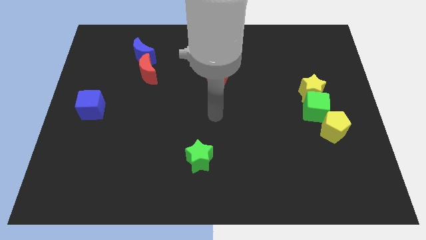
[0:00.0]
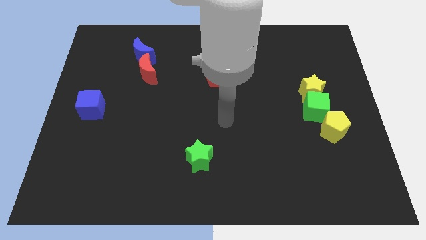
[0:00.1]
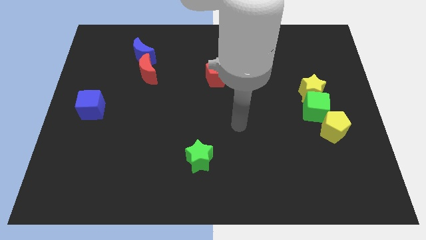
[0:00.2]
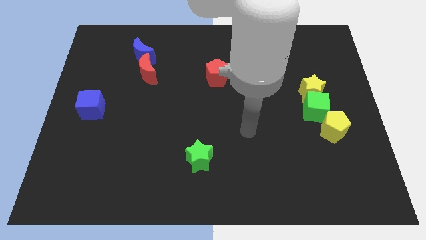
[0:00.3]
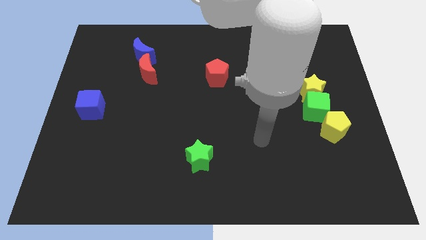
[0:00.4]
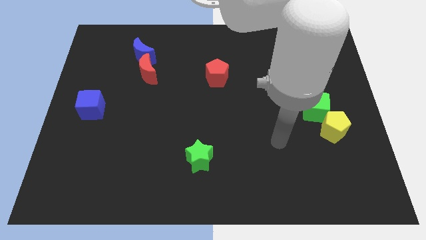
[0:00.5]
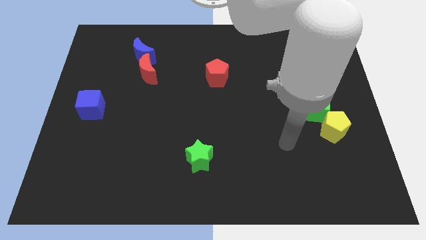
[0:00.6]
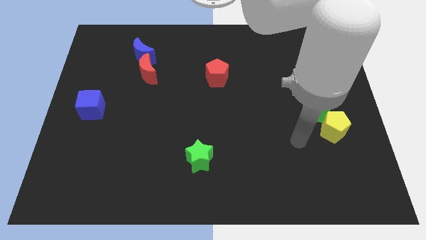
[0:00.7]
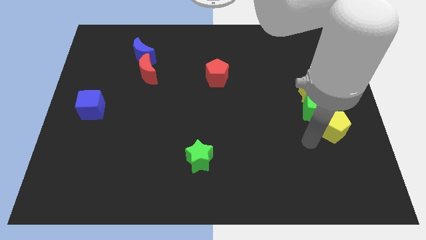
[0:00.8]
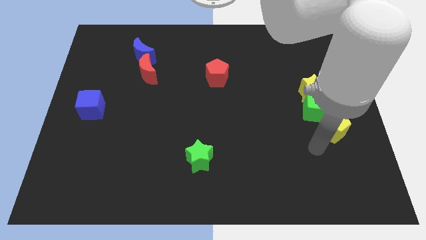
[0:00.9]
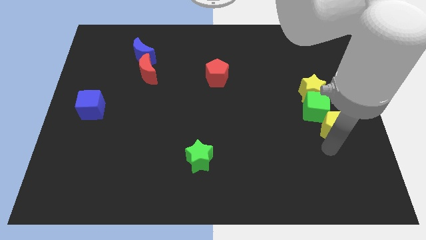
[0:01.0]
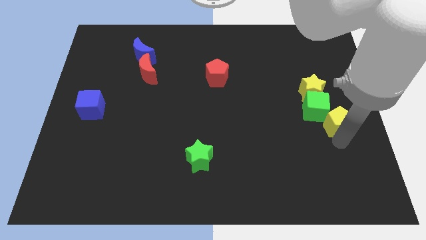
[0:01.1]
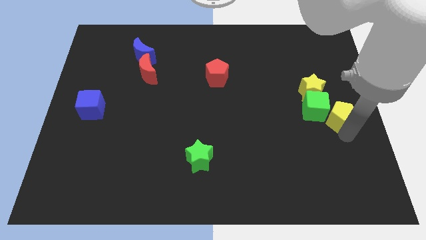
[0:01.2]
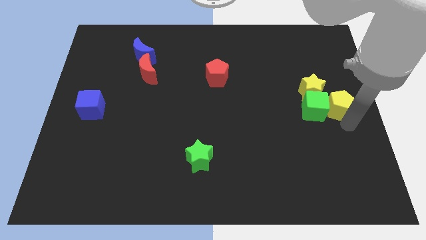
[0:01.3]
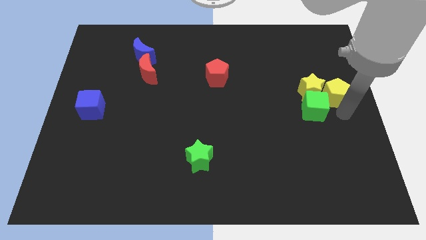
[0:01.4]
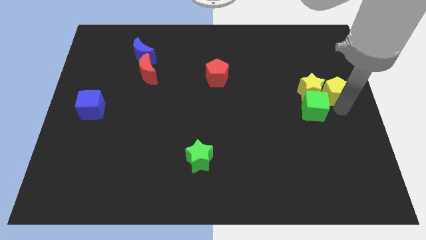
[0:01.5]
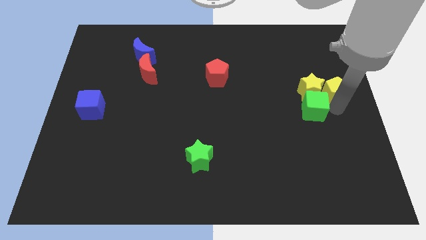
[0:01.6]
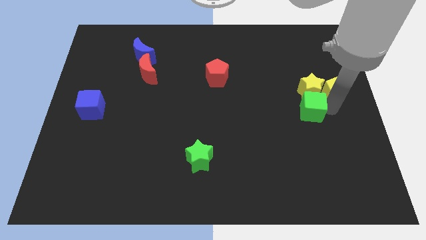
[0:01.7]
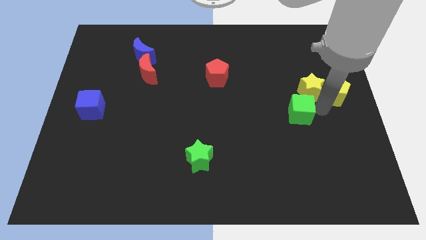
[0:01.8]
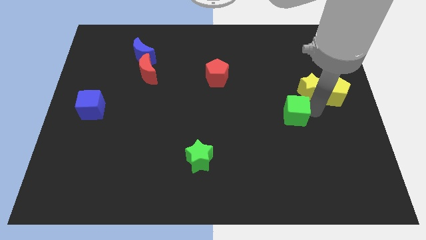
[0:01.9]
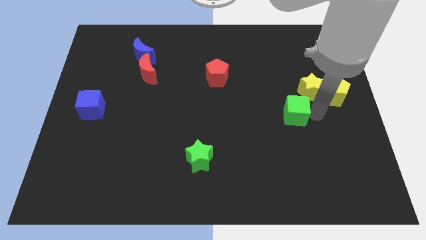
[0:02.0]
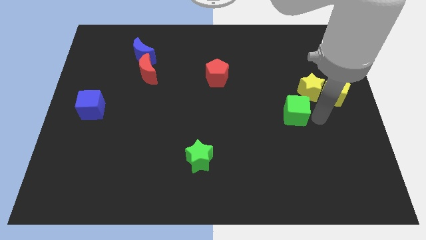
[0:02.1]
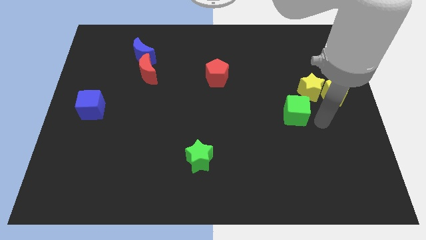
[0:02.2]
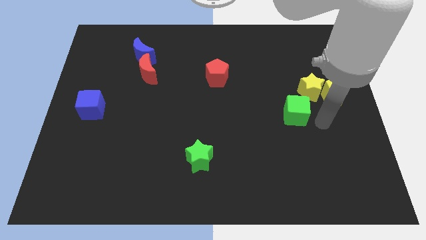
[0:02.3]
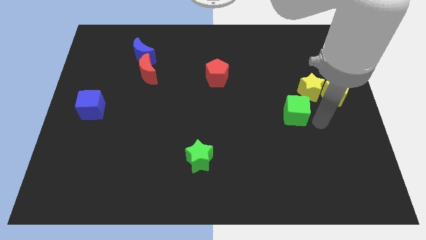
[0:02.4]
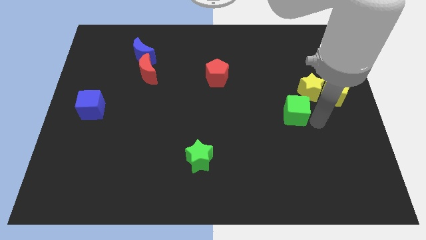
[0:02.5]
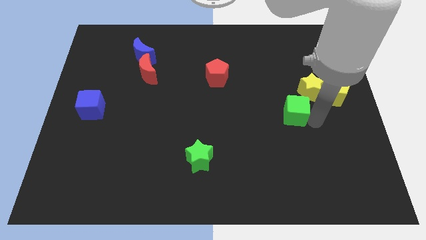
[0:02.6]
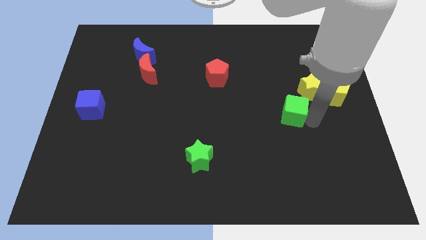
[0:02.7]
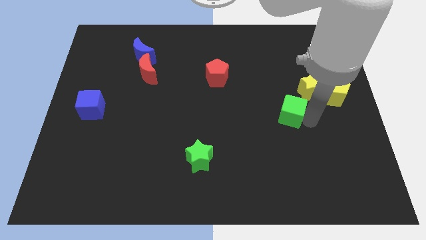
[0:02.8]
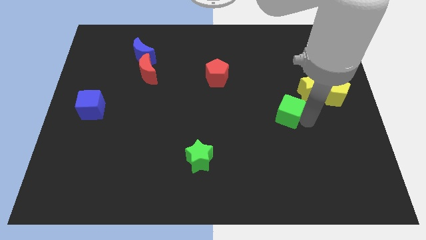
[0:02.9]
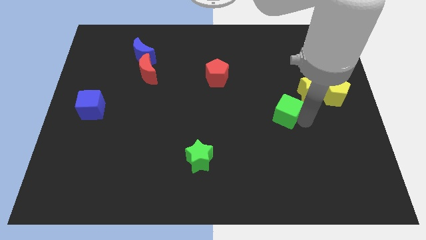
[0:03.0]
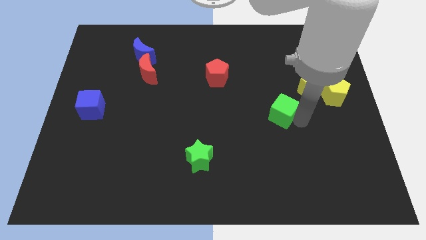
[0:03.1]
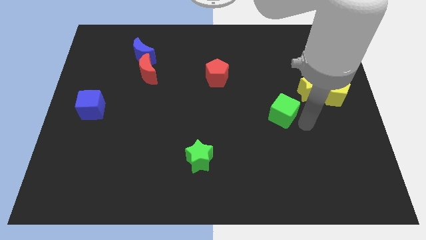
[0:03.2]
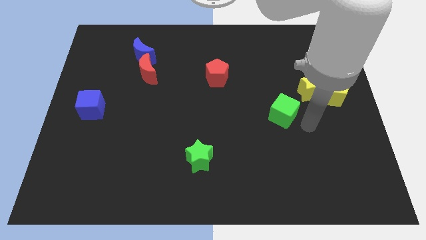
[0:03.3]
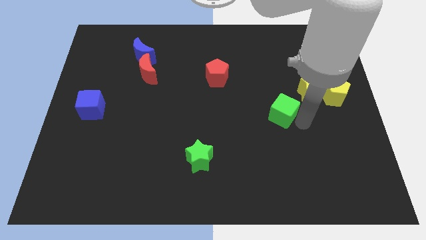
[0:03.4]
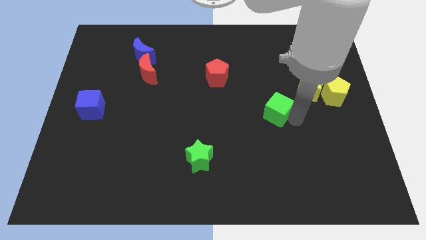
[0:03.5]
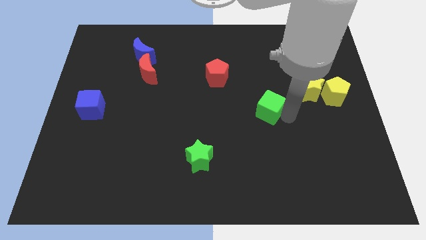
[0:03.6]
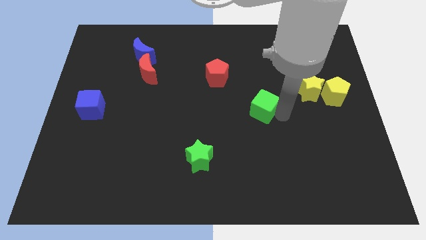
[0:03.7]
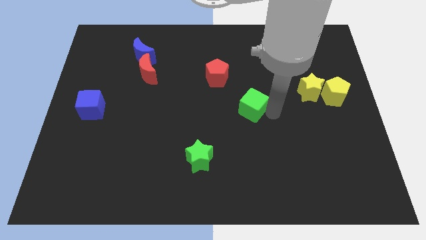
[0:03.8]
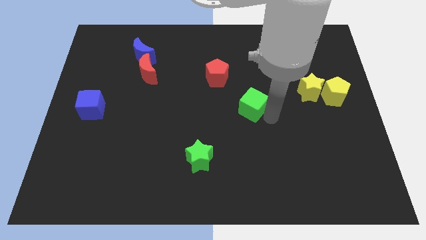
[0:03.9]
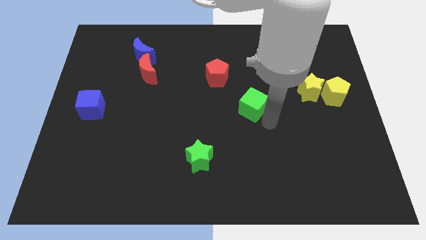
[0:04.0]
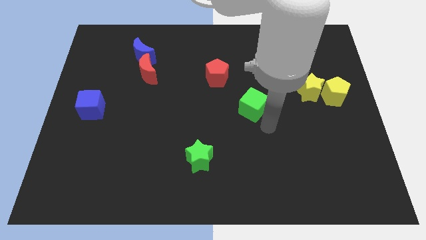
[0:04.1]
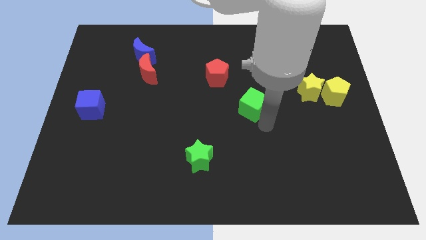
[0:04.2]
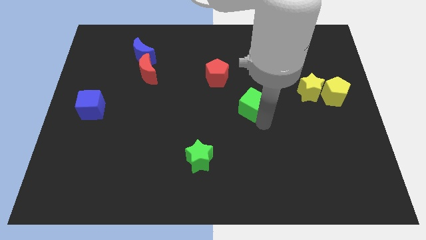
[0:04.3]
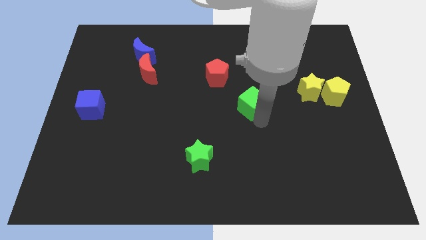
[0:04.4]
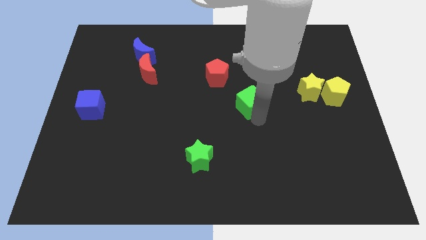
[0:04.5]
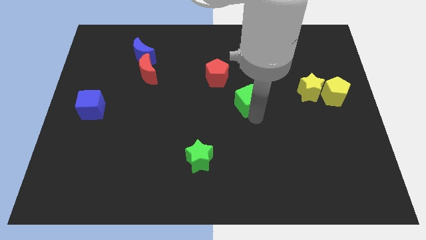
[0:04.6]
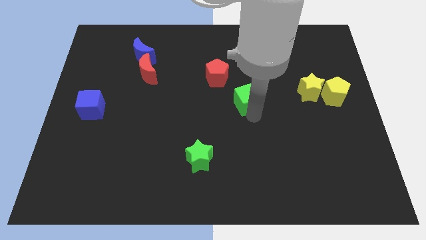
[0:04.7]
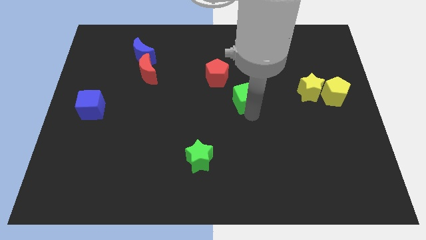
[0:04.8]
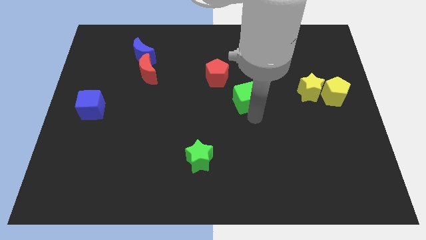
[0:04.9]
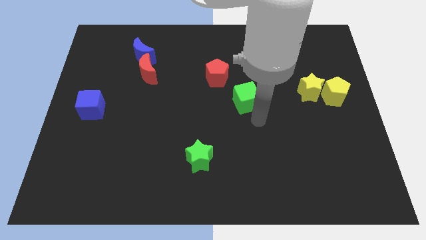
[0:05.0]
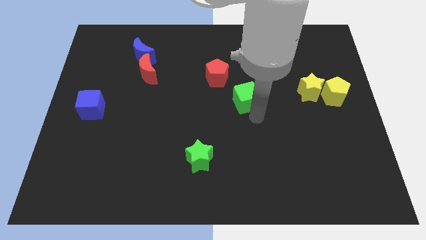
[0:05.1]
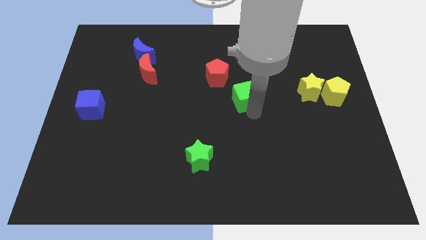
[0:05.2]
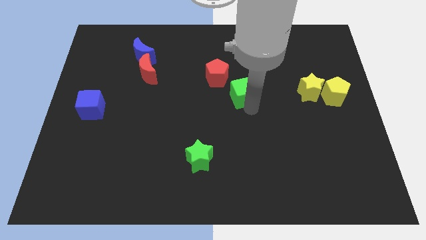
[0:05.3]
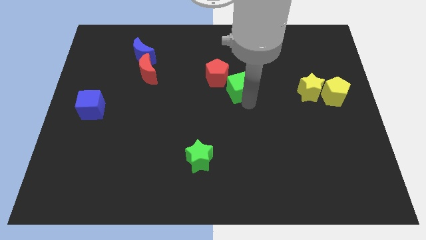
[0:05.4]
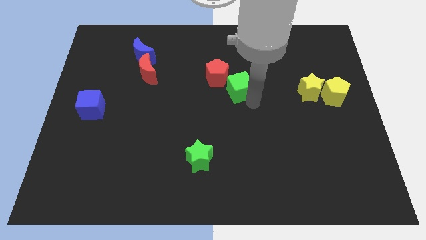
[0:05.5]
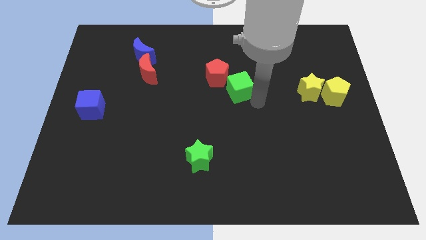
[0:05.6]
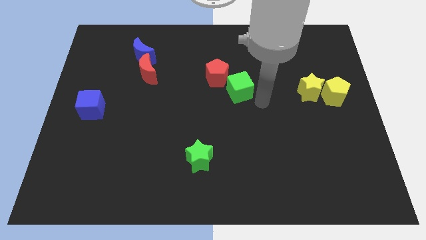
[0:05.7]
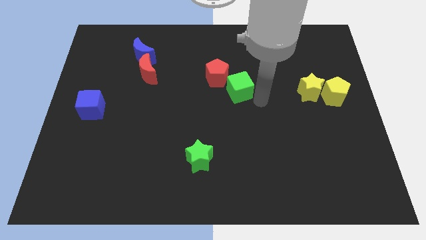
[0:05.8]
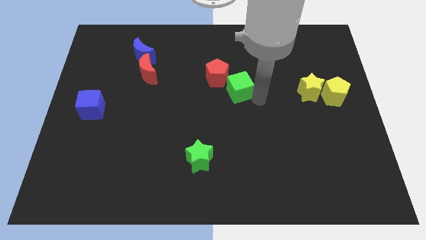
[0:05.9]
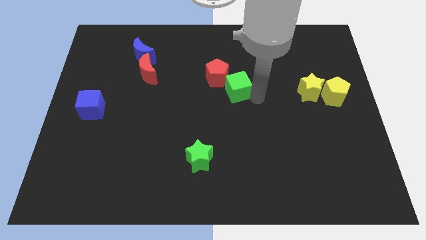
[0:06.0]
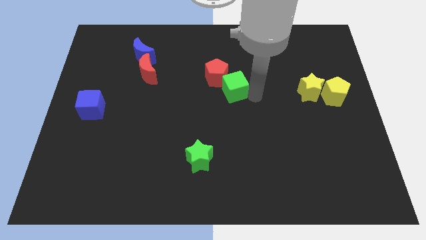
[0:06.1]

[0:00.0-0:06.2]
move the green cube towards the red pentagon
